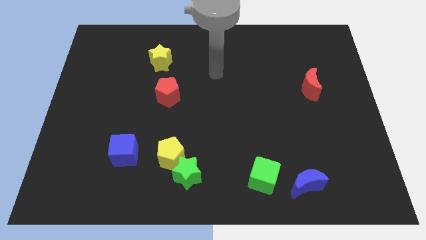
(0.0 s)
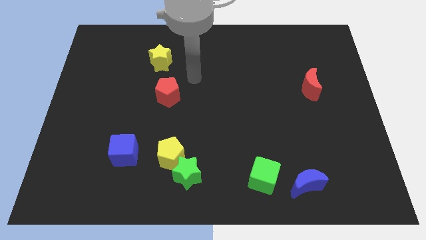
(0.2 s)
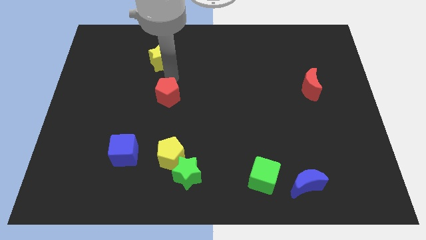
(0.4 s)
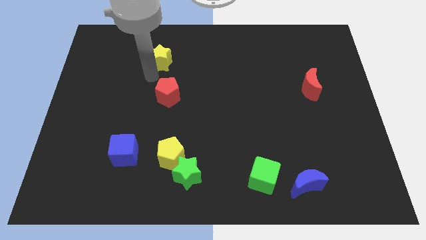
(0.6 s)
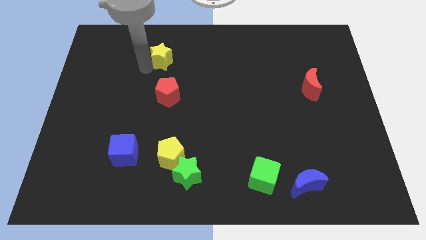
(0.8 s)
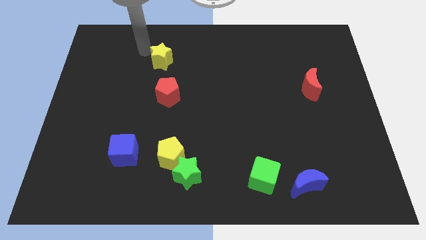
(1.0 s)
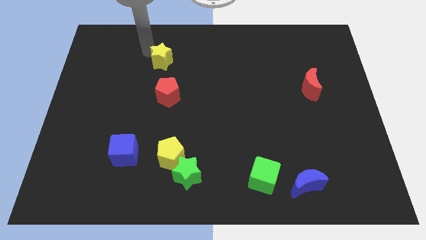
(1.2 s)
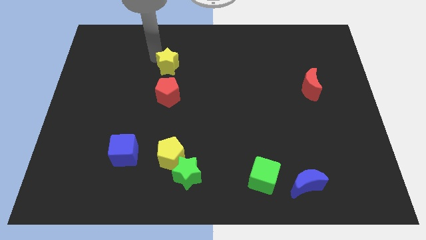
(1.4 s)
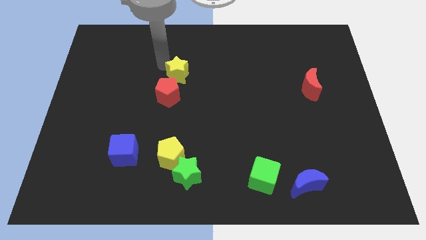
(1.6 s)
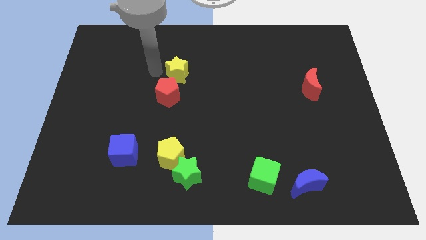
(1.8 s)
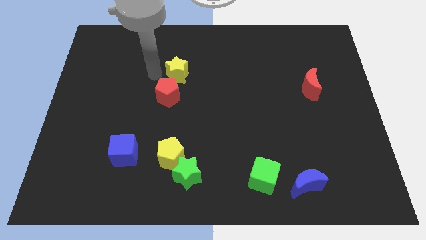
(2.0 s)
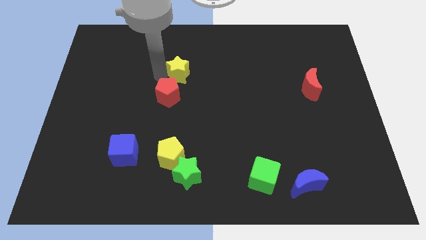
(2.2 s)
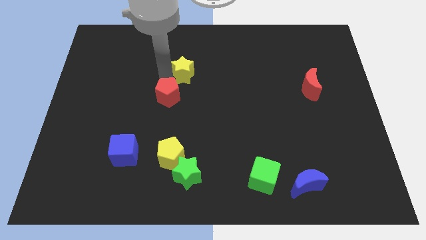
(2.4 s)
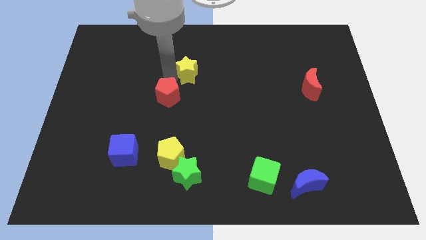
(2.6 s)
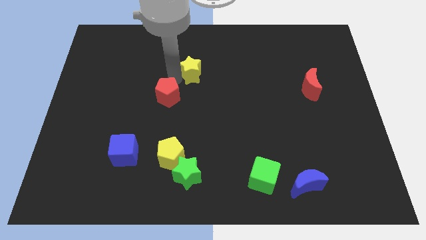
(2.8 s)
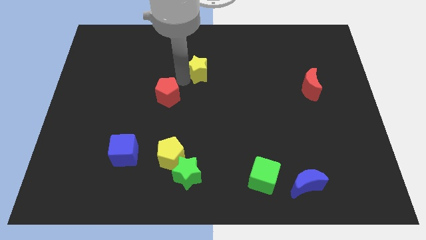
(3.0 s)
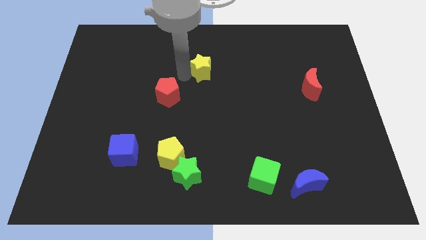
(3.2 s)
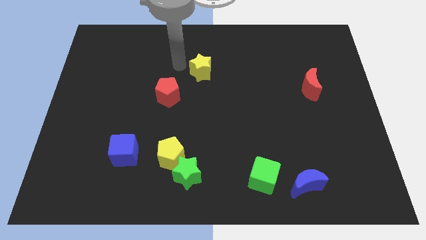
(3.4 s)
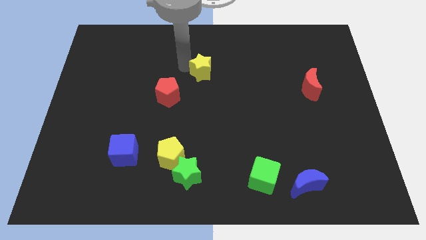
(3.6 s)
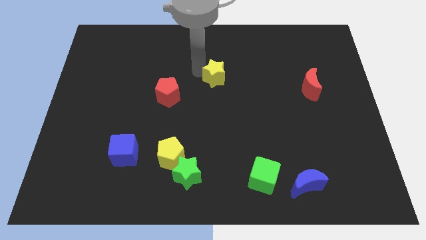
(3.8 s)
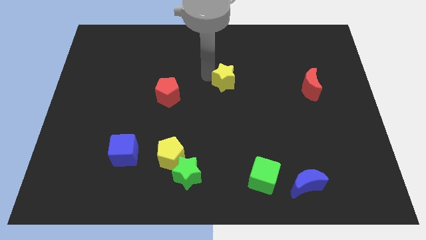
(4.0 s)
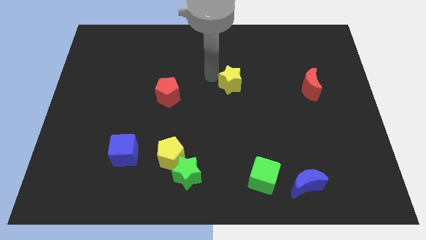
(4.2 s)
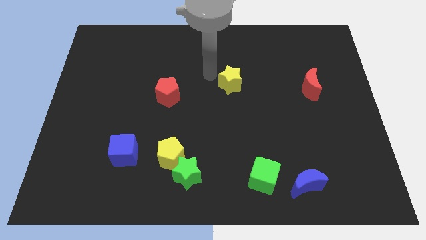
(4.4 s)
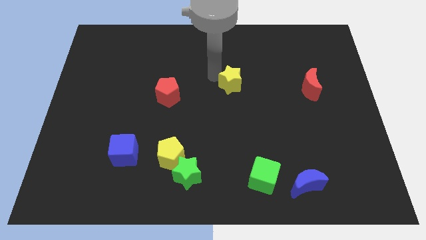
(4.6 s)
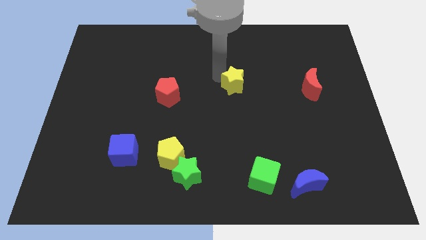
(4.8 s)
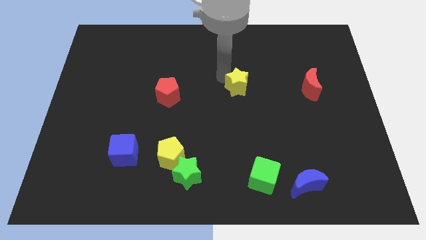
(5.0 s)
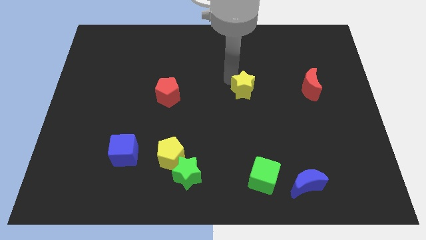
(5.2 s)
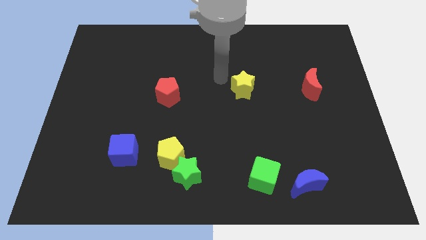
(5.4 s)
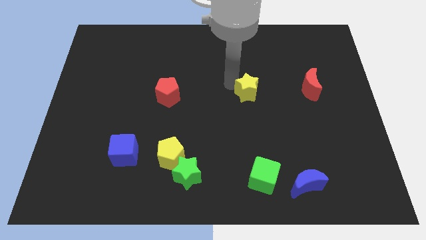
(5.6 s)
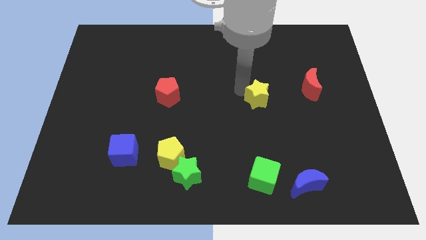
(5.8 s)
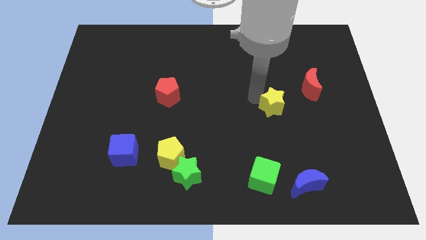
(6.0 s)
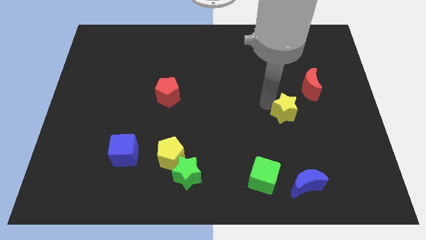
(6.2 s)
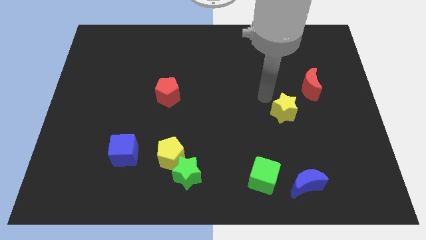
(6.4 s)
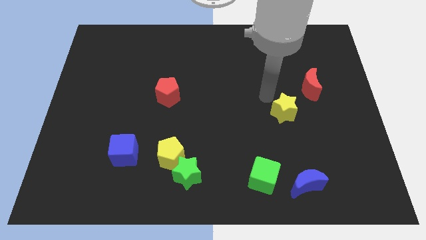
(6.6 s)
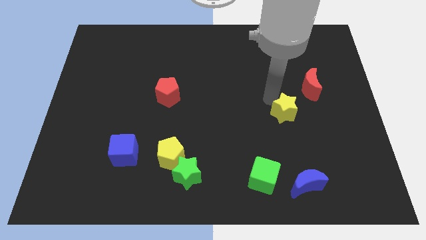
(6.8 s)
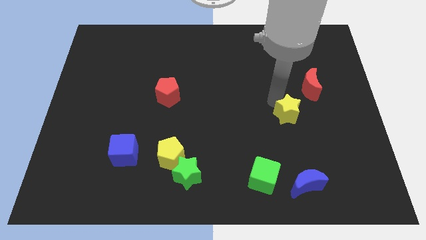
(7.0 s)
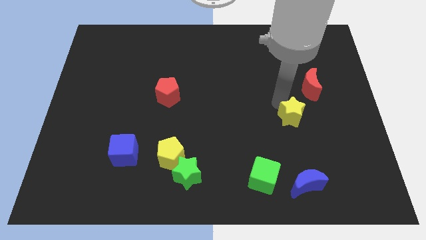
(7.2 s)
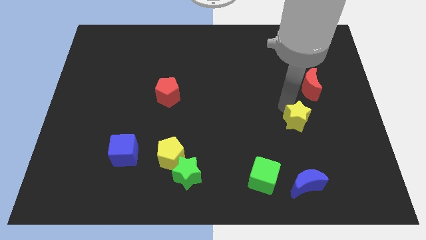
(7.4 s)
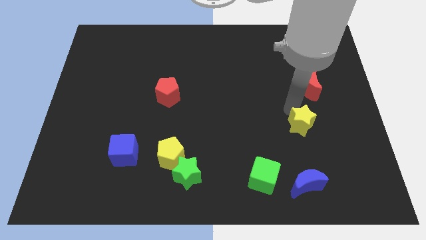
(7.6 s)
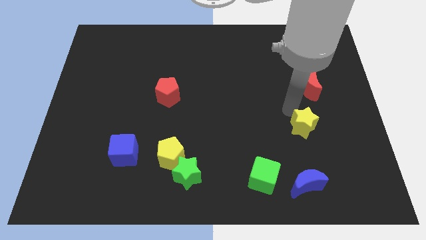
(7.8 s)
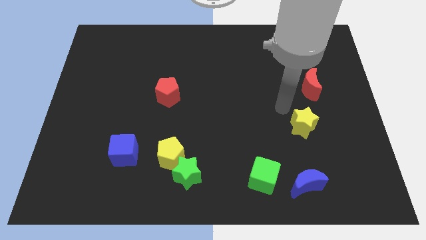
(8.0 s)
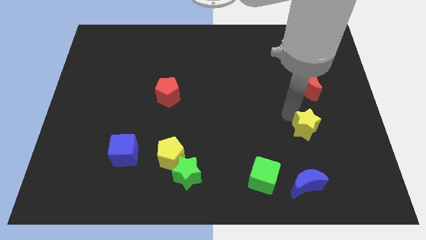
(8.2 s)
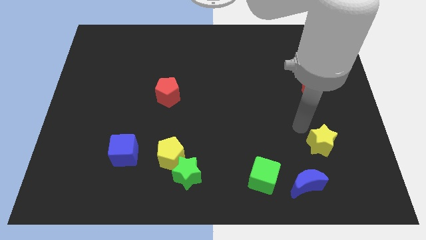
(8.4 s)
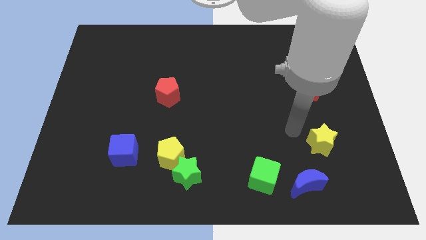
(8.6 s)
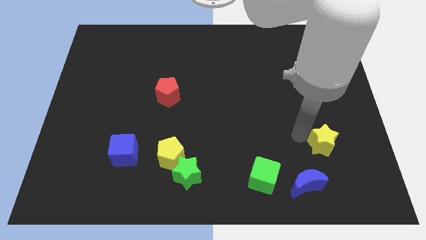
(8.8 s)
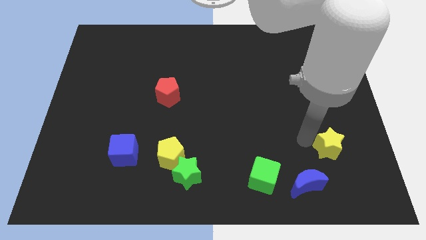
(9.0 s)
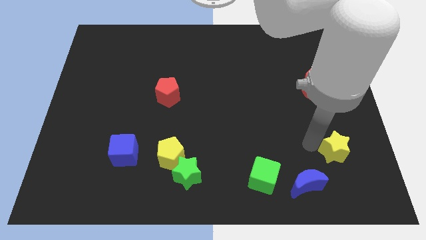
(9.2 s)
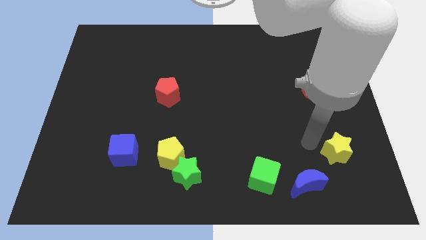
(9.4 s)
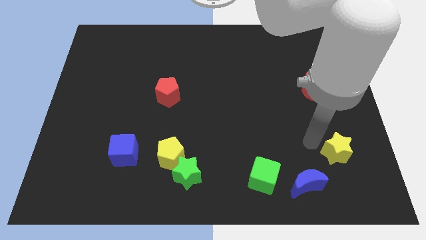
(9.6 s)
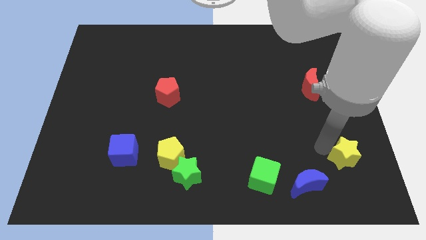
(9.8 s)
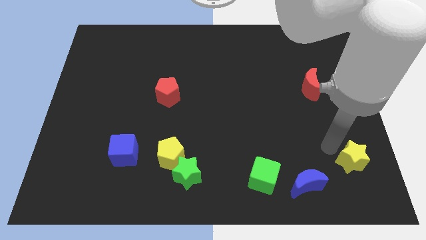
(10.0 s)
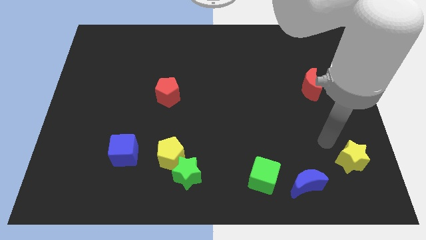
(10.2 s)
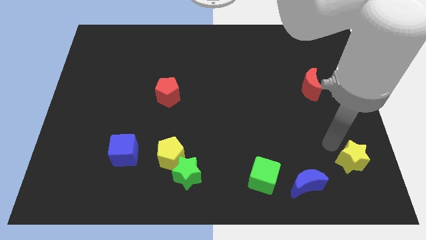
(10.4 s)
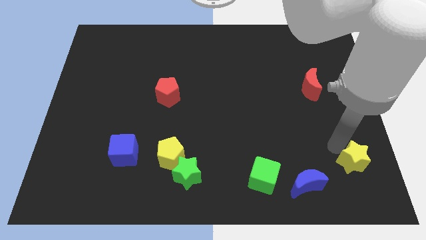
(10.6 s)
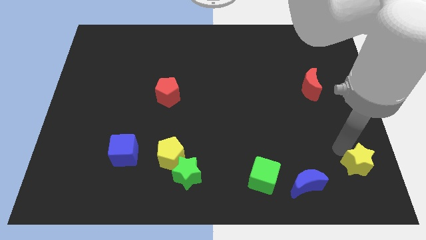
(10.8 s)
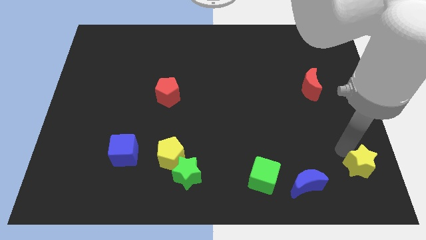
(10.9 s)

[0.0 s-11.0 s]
put the yellow star to the bottom right corner

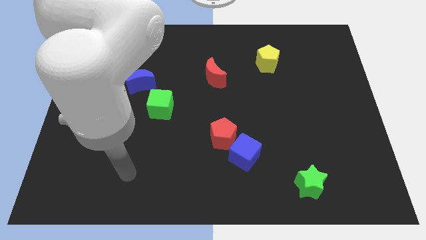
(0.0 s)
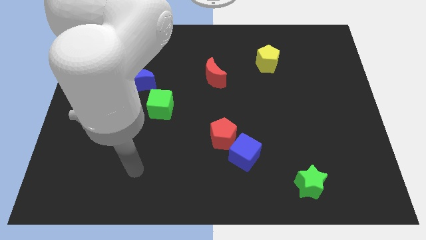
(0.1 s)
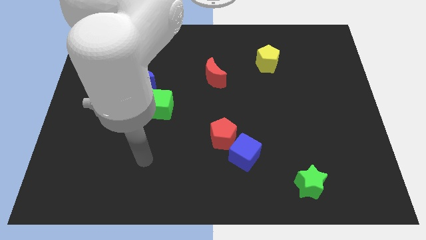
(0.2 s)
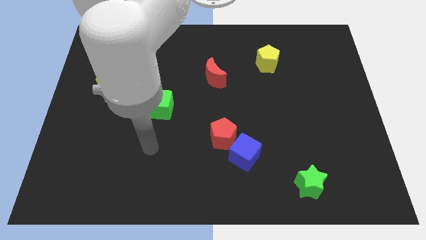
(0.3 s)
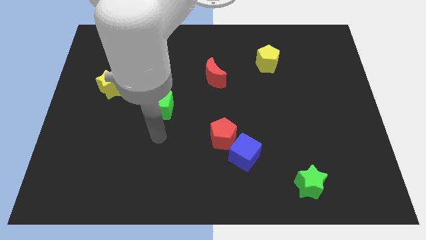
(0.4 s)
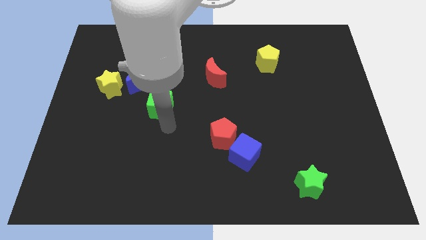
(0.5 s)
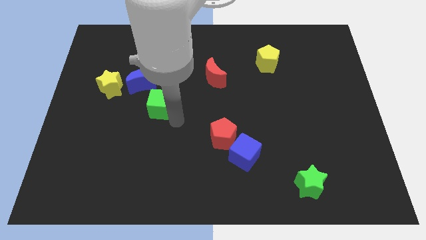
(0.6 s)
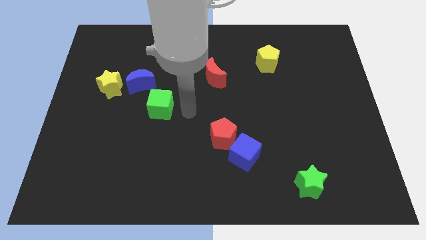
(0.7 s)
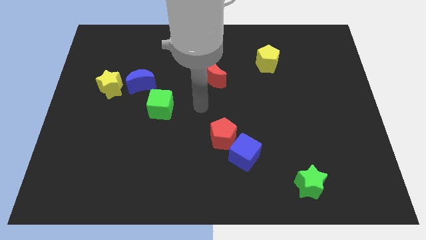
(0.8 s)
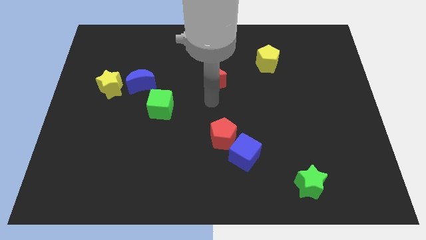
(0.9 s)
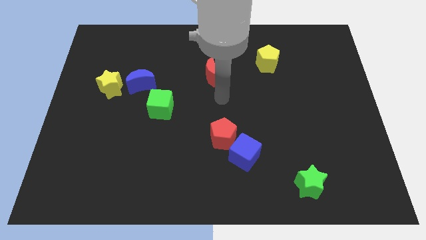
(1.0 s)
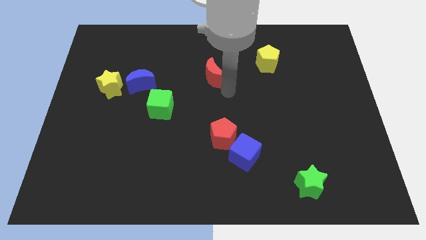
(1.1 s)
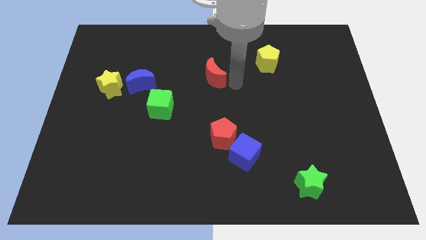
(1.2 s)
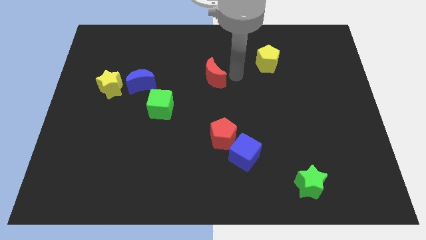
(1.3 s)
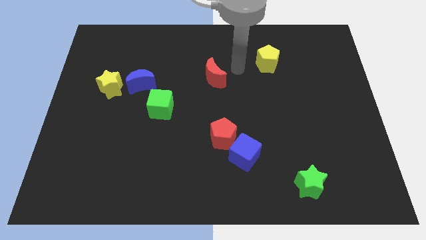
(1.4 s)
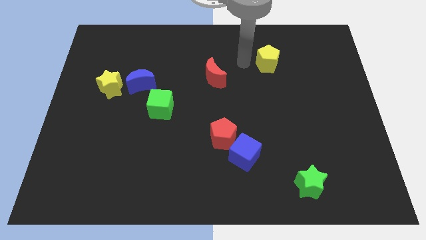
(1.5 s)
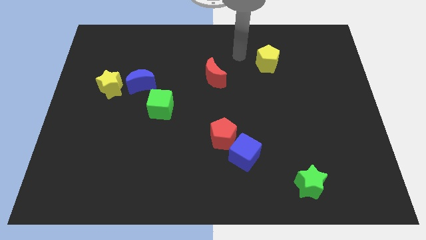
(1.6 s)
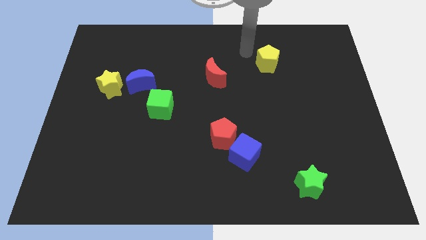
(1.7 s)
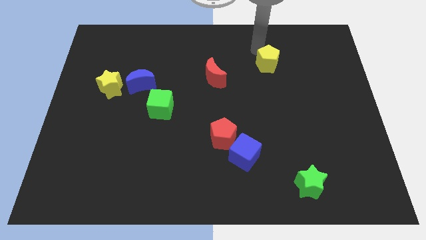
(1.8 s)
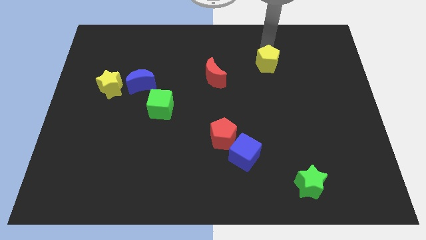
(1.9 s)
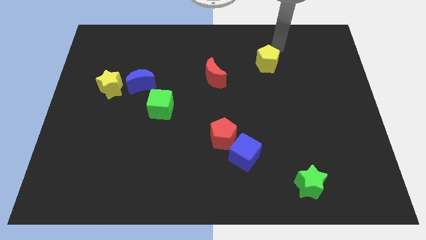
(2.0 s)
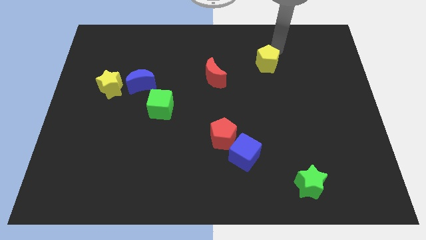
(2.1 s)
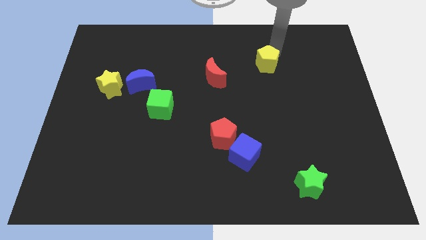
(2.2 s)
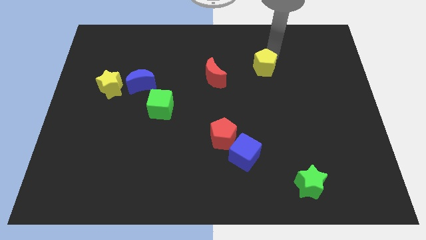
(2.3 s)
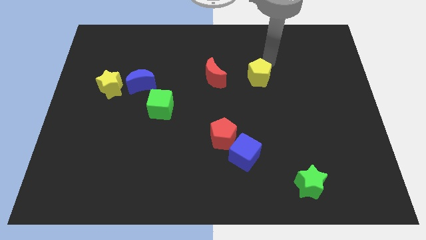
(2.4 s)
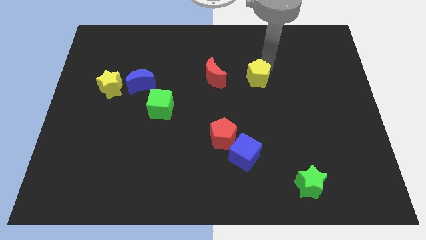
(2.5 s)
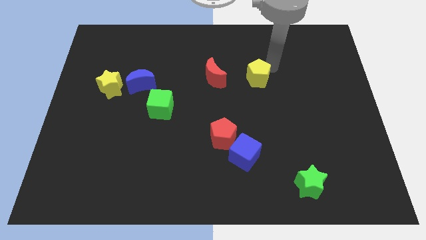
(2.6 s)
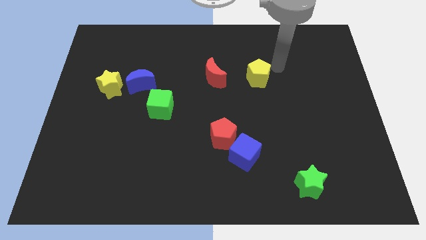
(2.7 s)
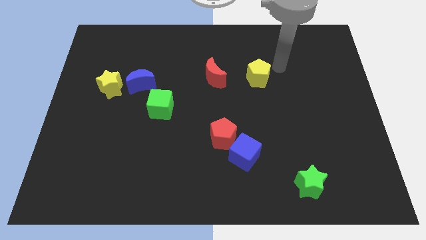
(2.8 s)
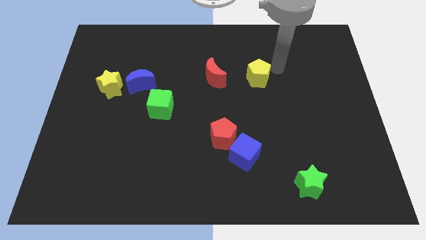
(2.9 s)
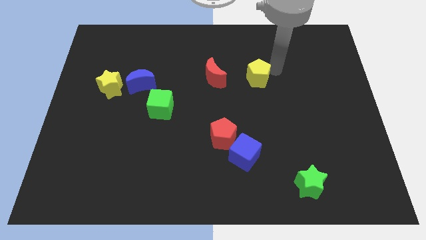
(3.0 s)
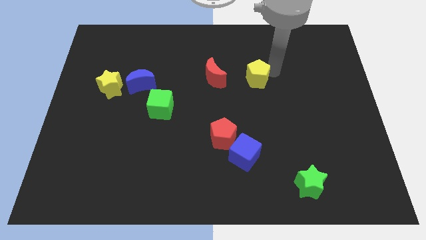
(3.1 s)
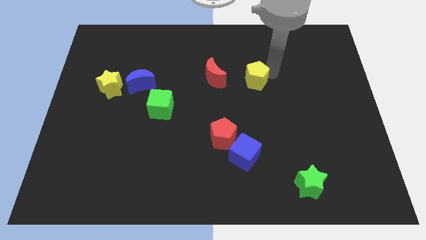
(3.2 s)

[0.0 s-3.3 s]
put the yellow pentagon to the center
